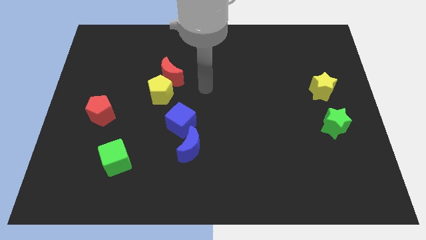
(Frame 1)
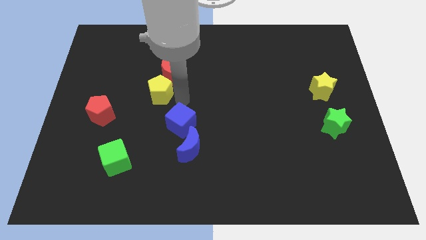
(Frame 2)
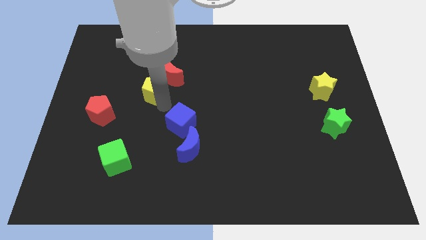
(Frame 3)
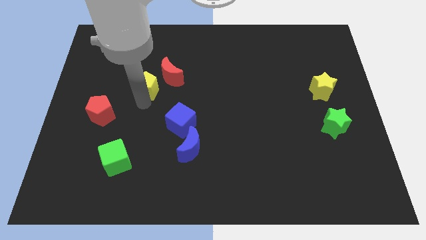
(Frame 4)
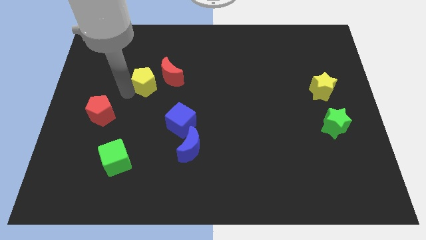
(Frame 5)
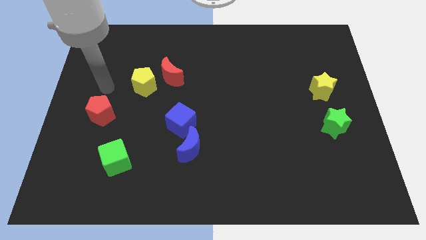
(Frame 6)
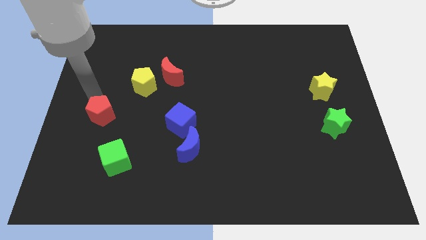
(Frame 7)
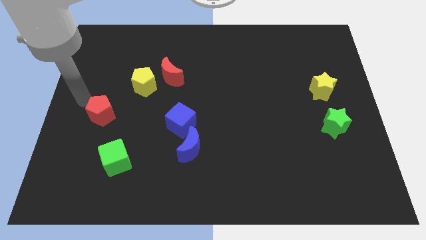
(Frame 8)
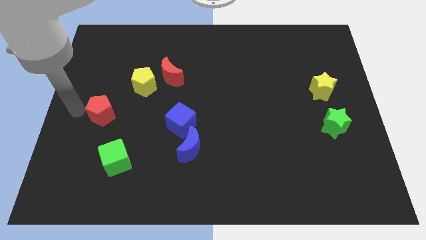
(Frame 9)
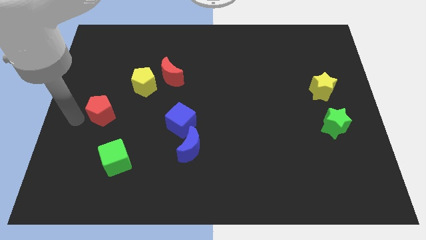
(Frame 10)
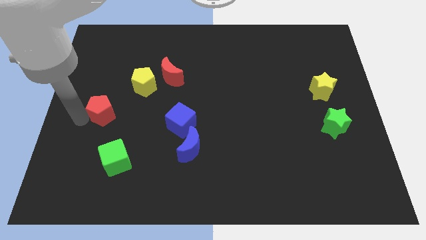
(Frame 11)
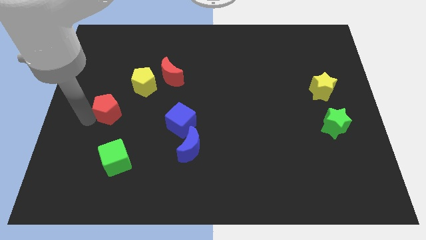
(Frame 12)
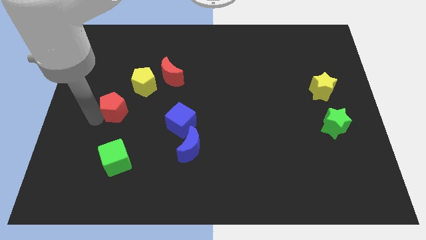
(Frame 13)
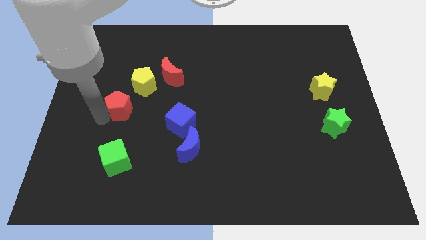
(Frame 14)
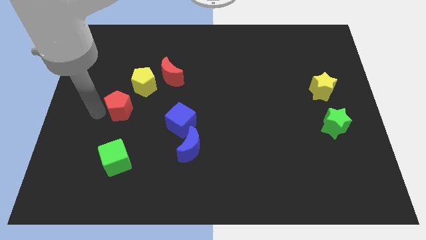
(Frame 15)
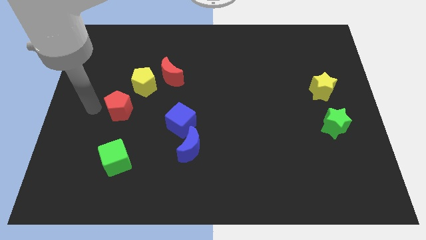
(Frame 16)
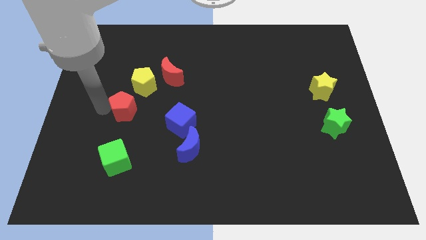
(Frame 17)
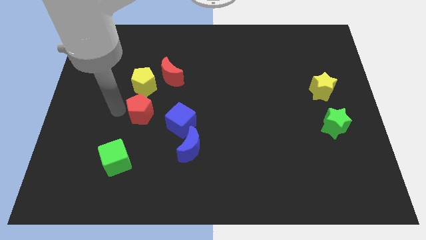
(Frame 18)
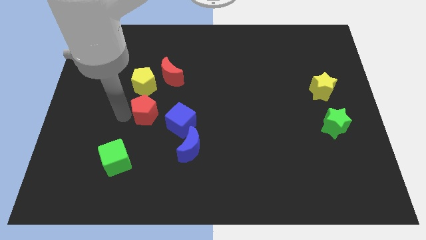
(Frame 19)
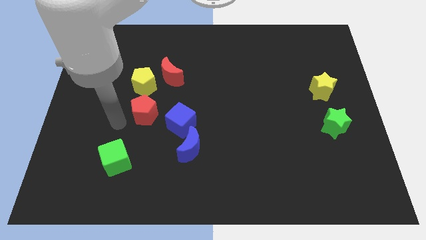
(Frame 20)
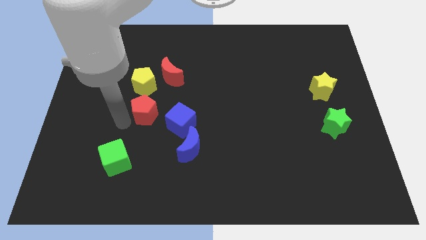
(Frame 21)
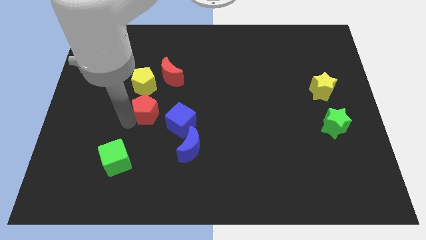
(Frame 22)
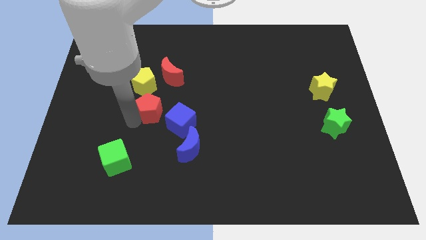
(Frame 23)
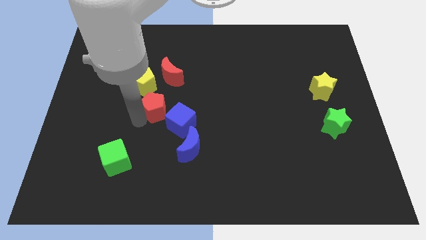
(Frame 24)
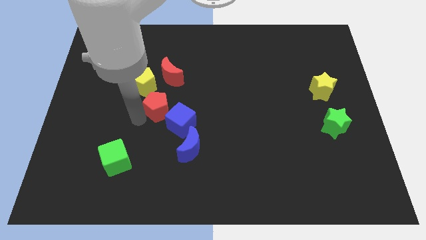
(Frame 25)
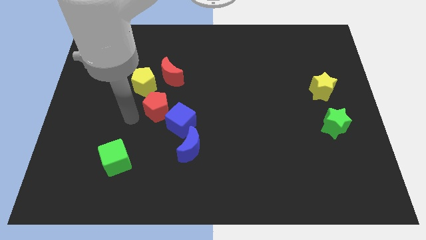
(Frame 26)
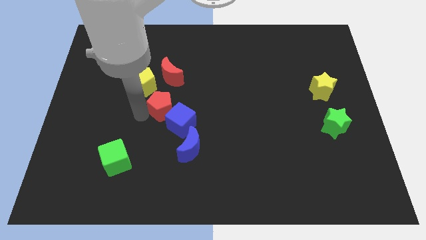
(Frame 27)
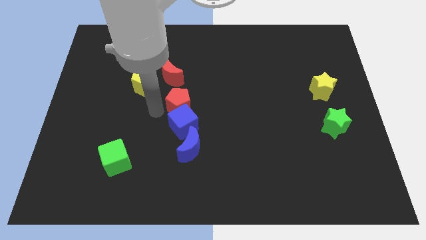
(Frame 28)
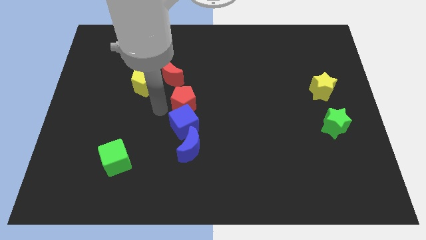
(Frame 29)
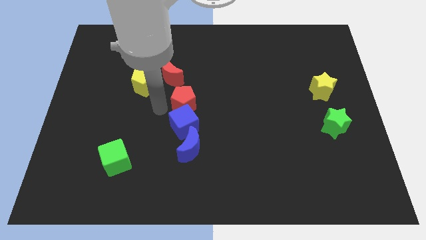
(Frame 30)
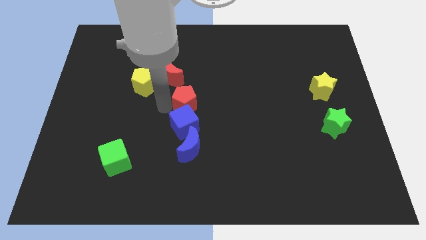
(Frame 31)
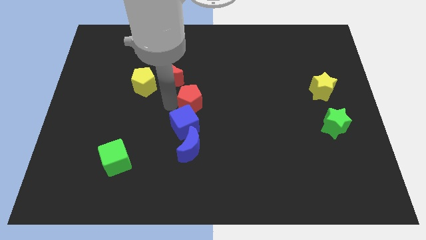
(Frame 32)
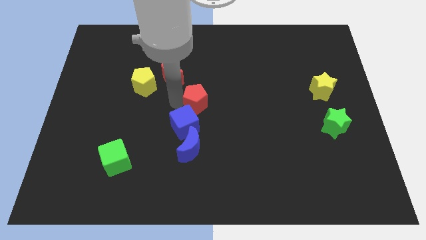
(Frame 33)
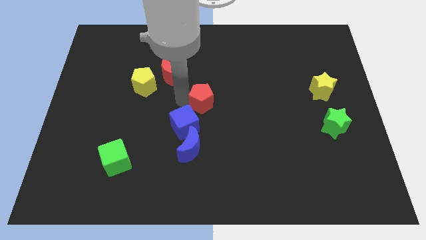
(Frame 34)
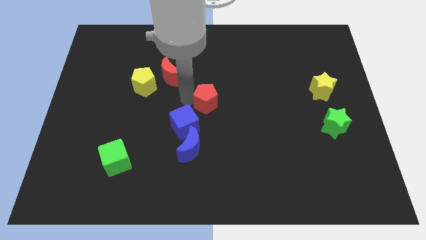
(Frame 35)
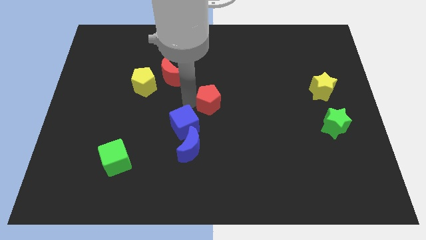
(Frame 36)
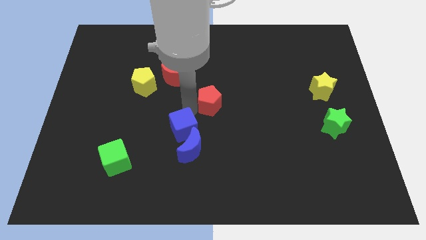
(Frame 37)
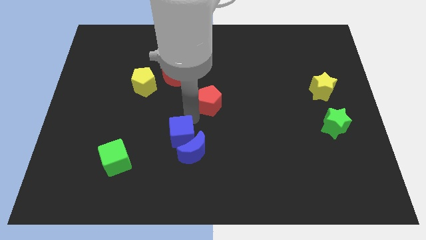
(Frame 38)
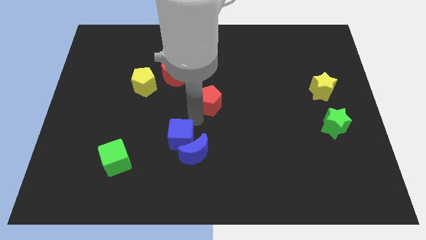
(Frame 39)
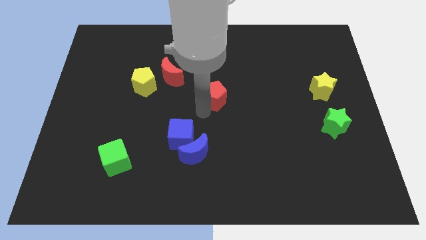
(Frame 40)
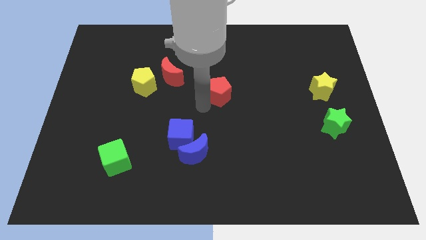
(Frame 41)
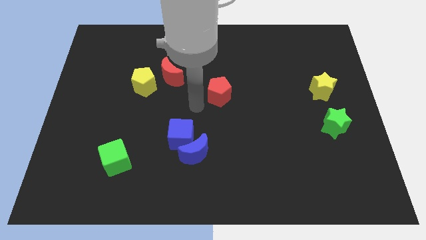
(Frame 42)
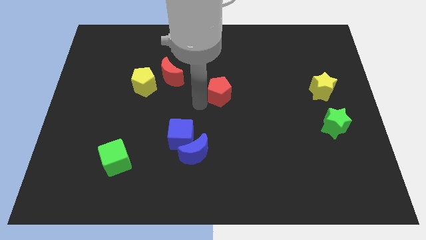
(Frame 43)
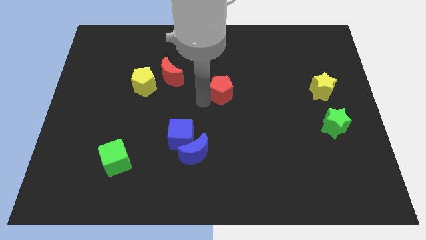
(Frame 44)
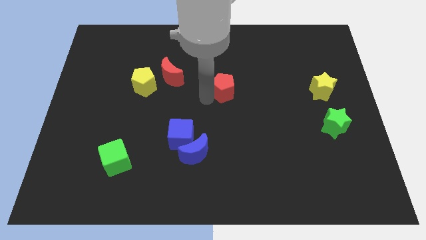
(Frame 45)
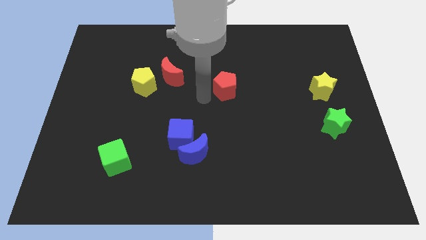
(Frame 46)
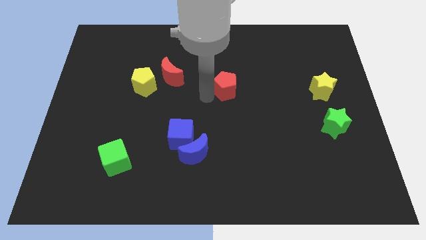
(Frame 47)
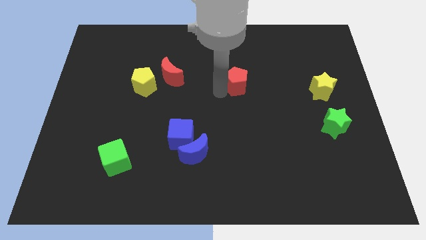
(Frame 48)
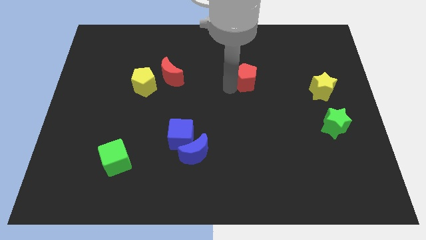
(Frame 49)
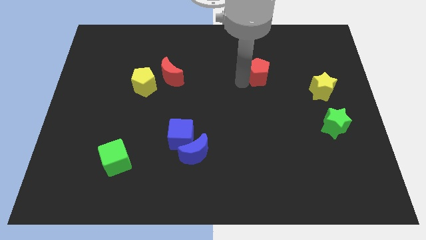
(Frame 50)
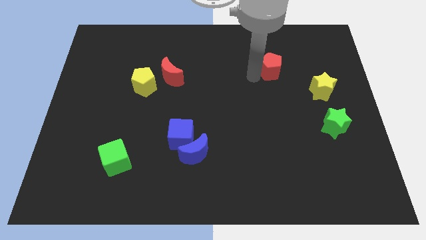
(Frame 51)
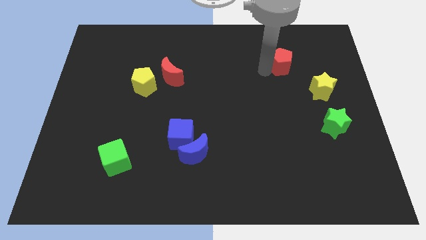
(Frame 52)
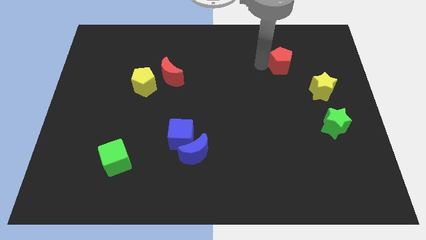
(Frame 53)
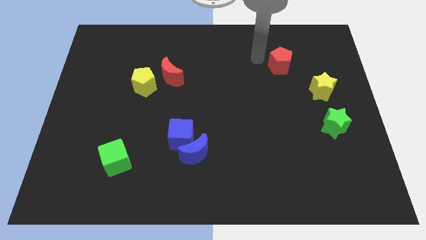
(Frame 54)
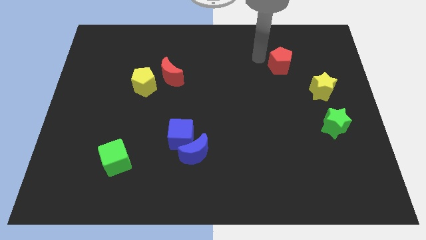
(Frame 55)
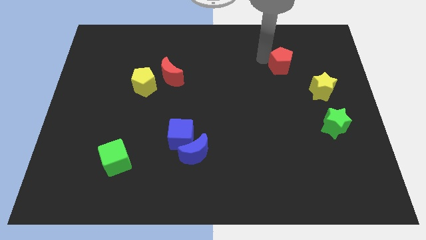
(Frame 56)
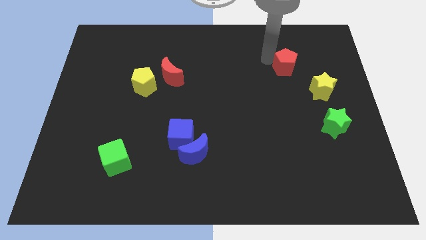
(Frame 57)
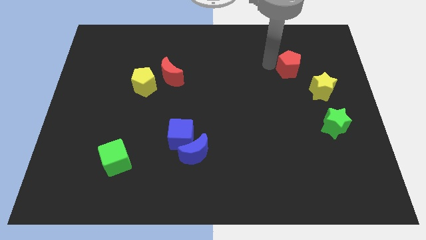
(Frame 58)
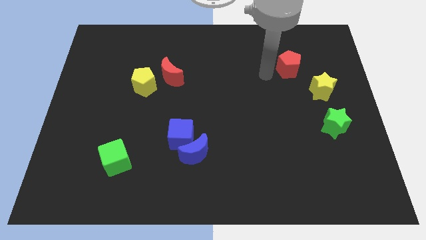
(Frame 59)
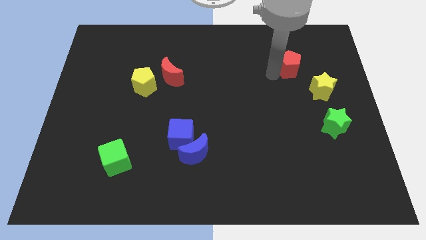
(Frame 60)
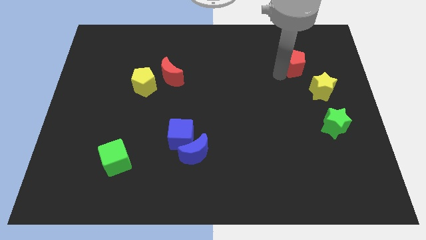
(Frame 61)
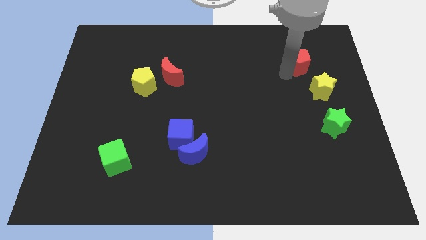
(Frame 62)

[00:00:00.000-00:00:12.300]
push the red pentagon to the top side of the yellow star

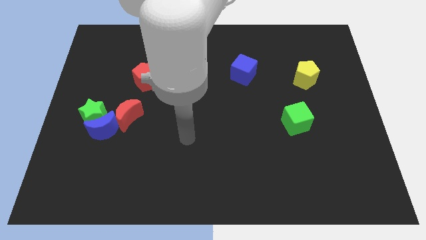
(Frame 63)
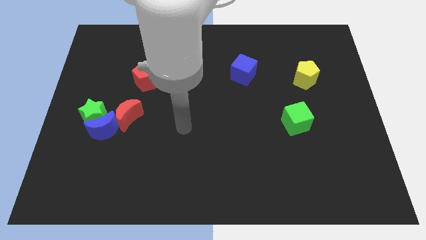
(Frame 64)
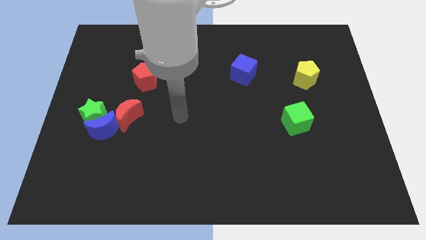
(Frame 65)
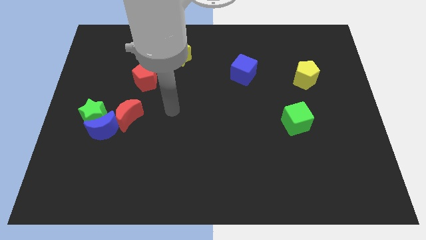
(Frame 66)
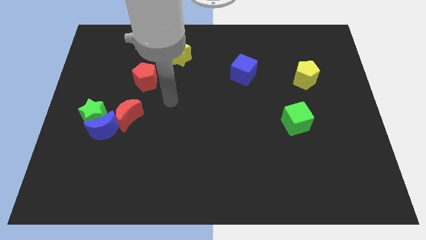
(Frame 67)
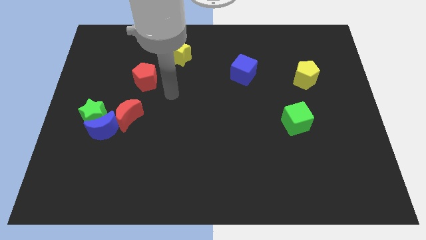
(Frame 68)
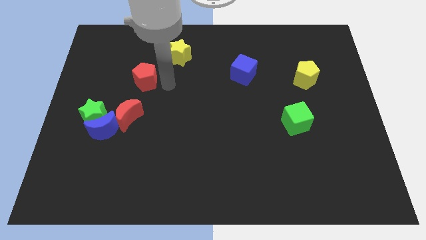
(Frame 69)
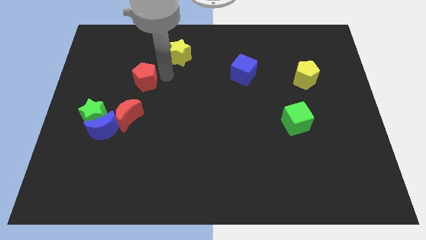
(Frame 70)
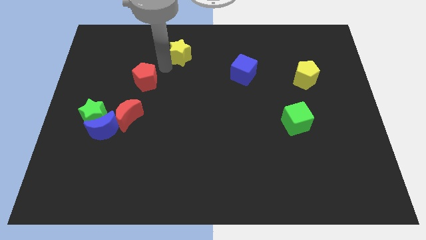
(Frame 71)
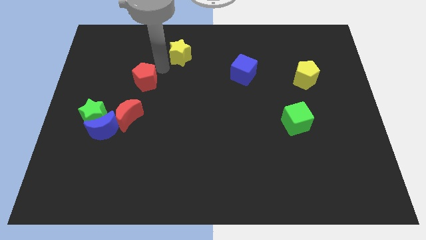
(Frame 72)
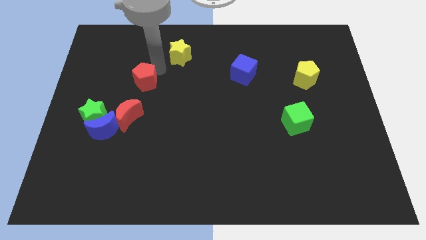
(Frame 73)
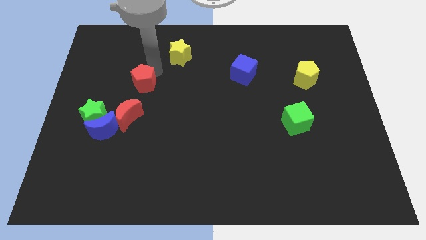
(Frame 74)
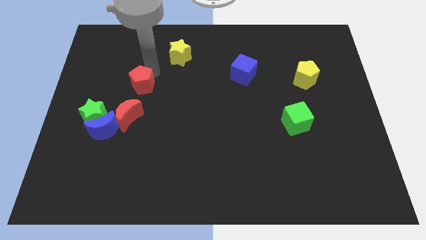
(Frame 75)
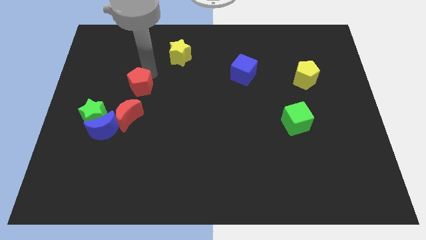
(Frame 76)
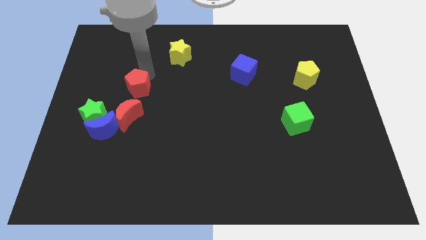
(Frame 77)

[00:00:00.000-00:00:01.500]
put the red pentagon to the top right of the green star

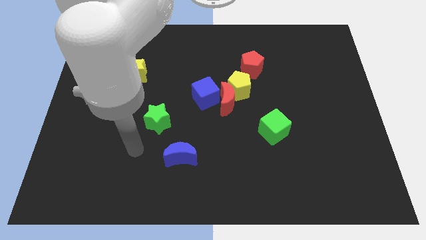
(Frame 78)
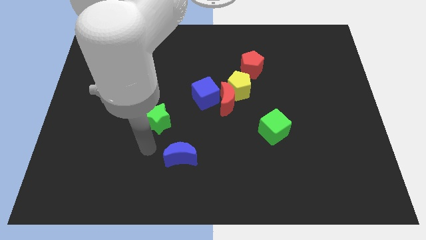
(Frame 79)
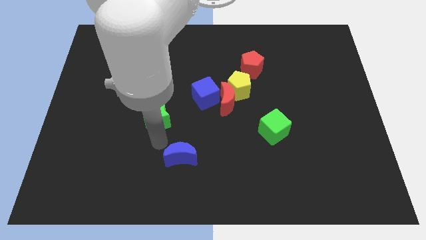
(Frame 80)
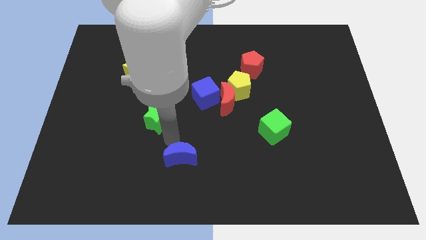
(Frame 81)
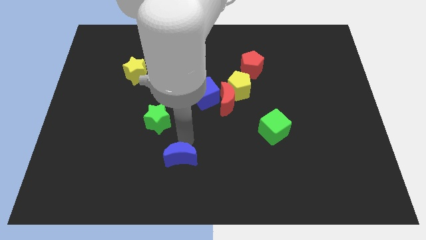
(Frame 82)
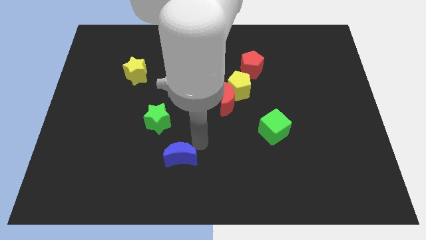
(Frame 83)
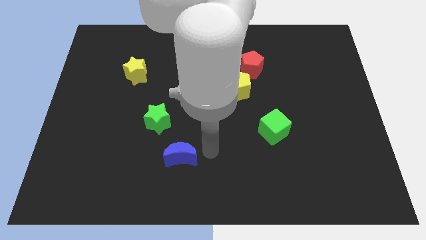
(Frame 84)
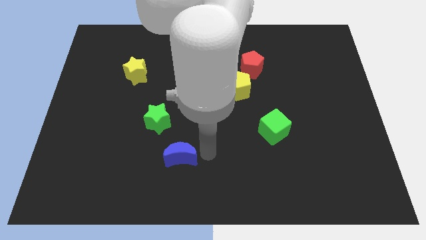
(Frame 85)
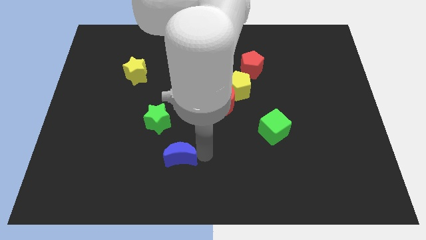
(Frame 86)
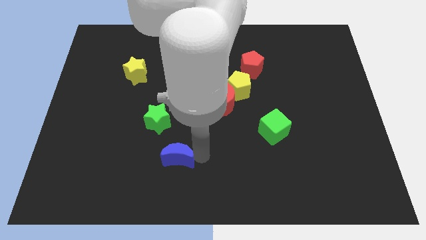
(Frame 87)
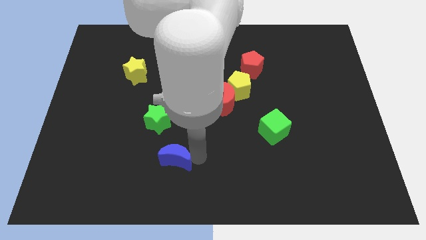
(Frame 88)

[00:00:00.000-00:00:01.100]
push the blue moon to the bottom side of the green star
